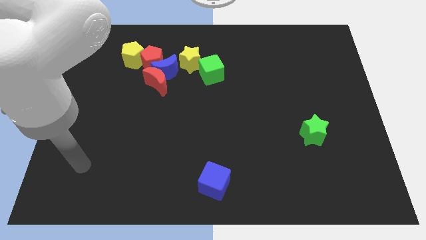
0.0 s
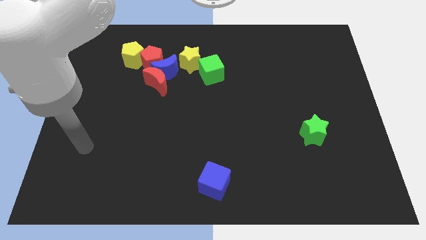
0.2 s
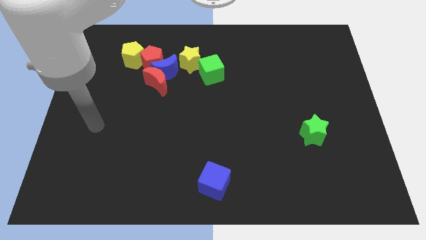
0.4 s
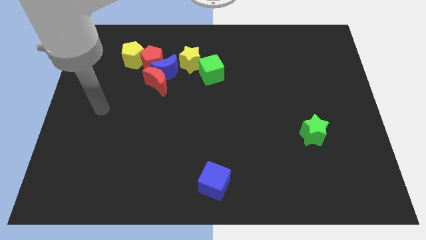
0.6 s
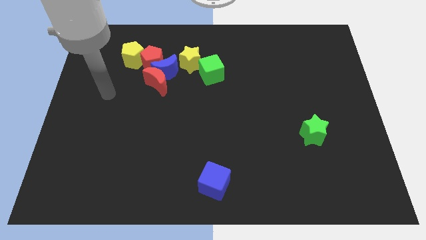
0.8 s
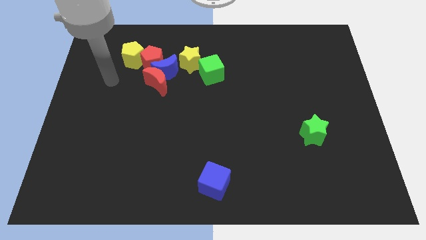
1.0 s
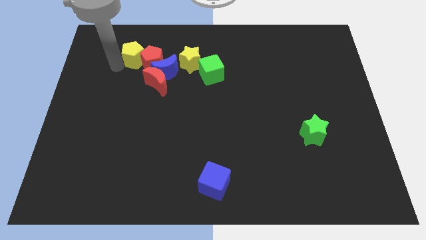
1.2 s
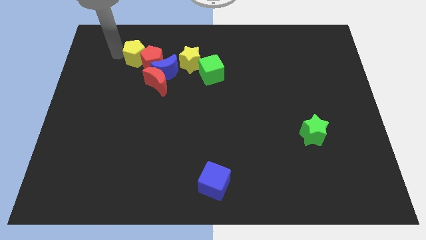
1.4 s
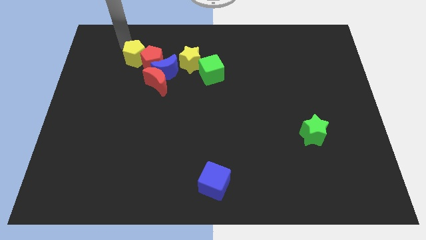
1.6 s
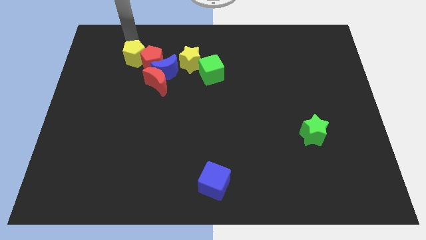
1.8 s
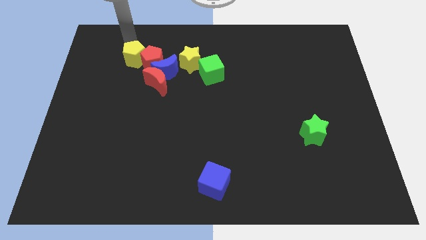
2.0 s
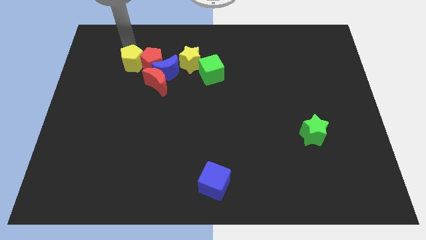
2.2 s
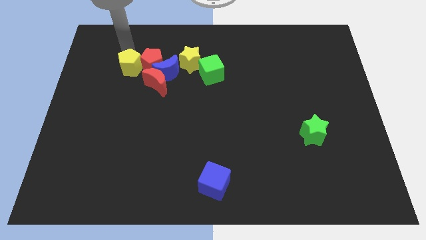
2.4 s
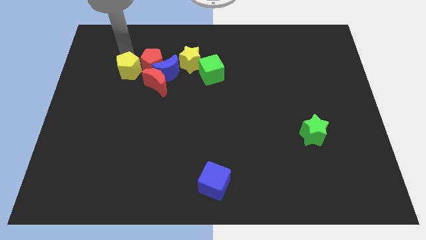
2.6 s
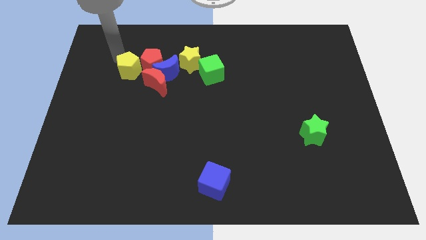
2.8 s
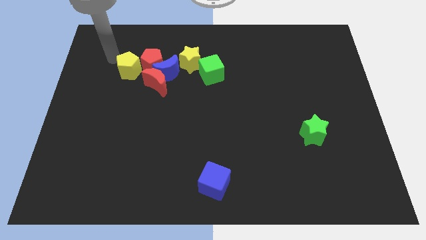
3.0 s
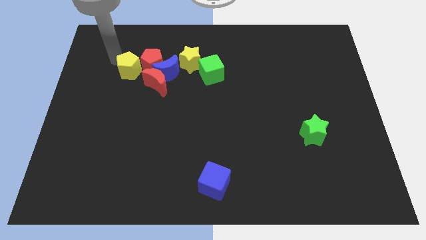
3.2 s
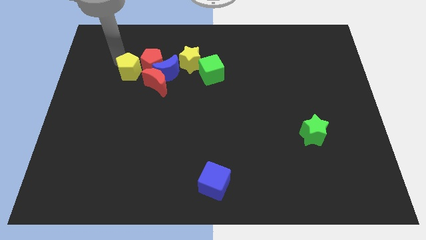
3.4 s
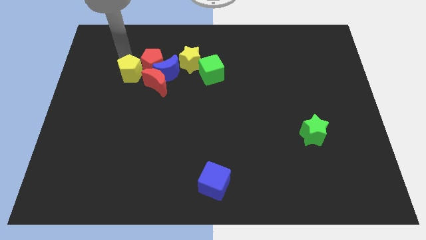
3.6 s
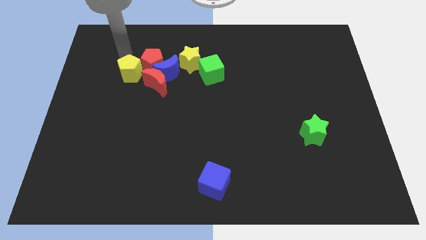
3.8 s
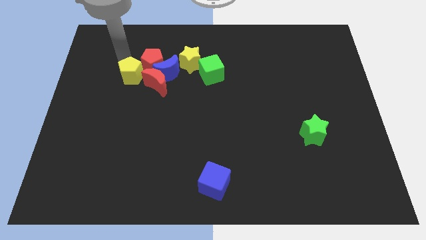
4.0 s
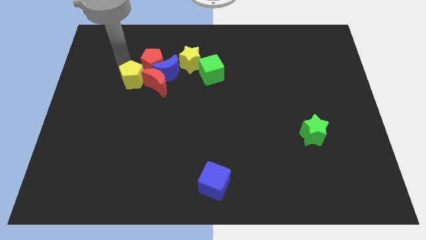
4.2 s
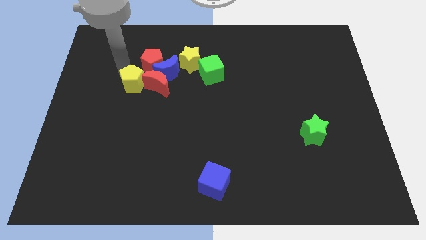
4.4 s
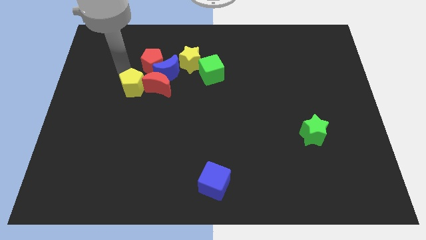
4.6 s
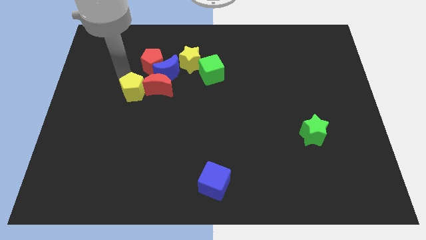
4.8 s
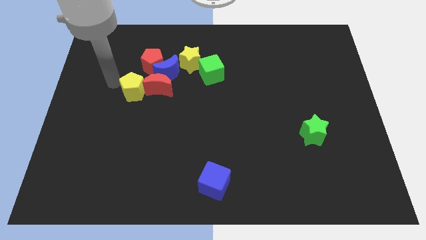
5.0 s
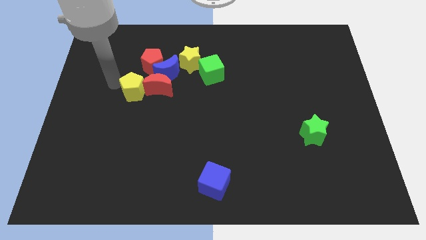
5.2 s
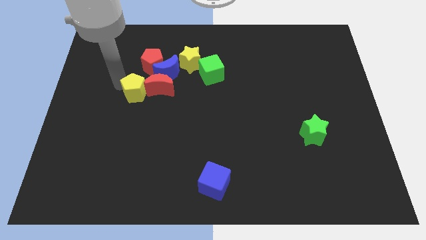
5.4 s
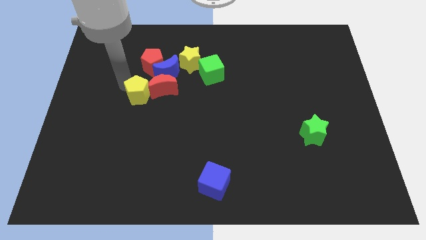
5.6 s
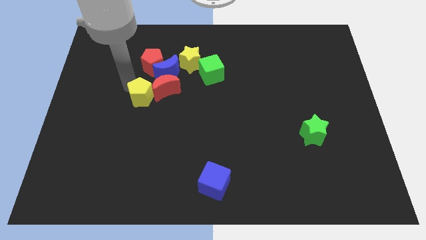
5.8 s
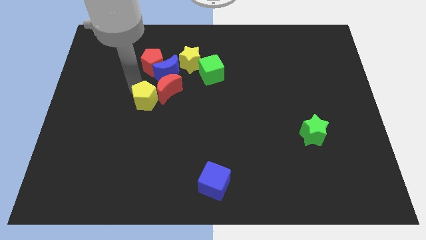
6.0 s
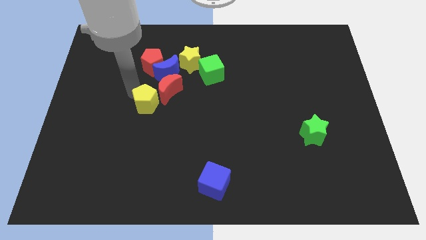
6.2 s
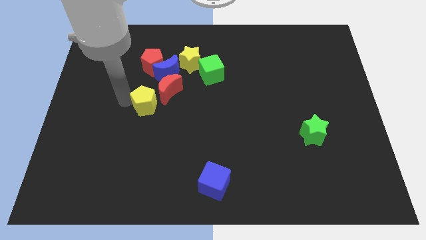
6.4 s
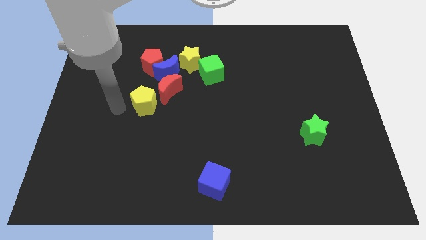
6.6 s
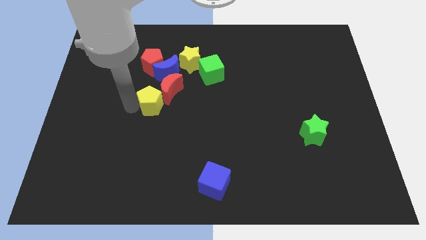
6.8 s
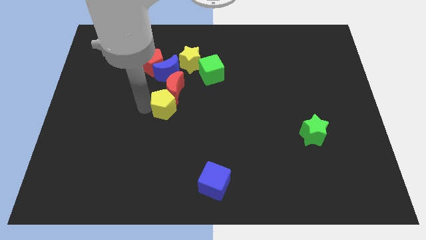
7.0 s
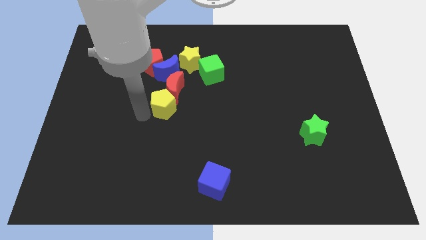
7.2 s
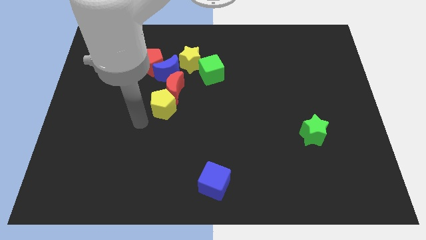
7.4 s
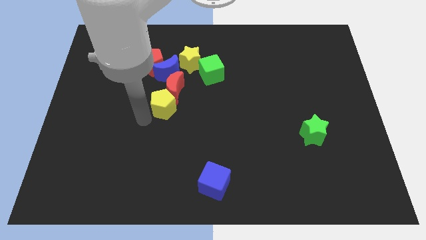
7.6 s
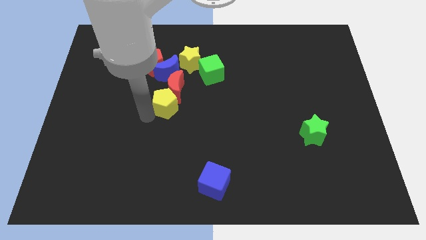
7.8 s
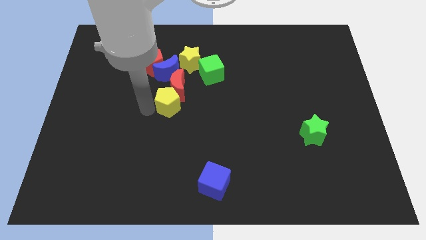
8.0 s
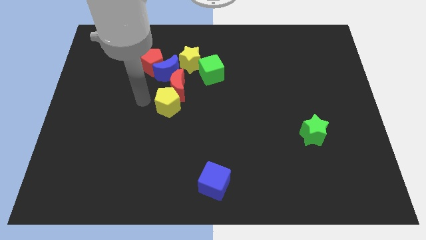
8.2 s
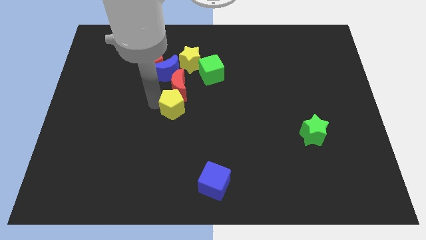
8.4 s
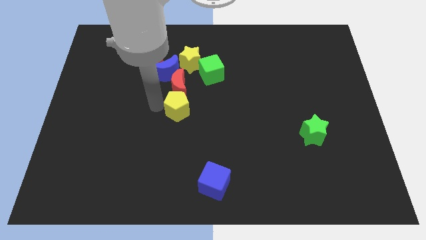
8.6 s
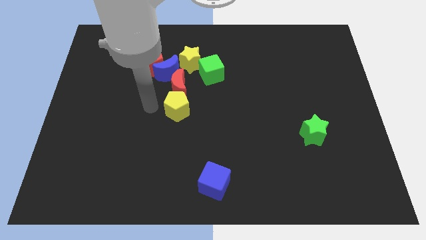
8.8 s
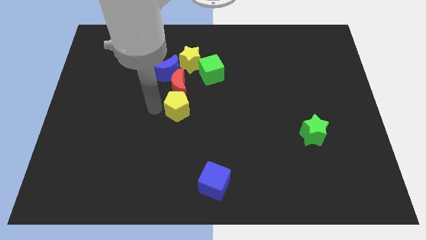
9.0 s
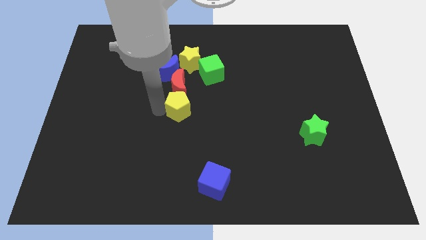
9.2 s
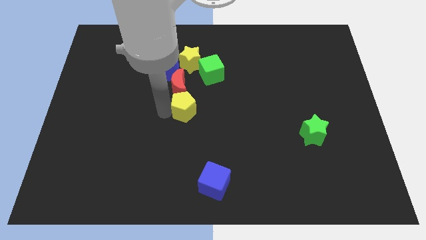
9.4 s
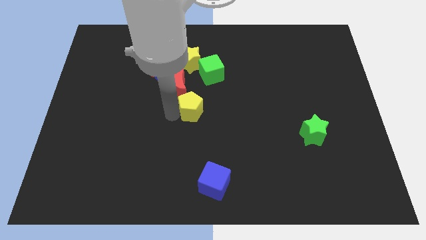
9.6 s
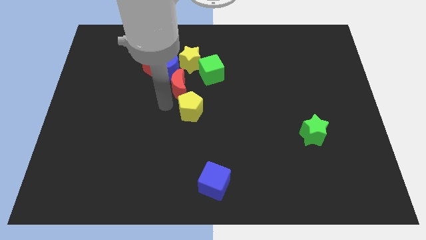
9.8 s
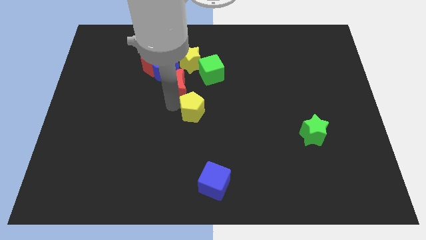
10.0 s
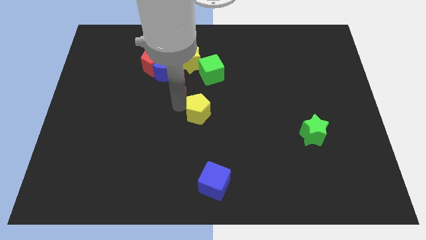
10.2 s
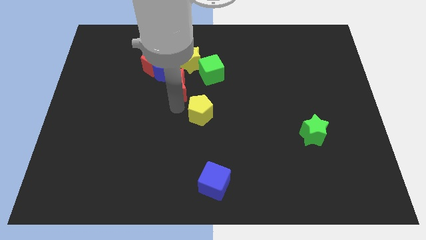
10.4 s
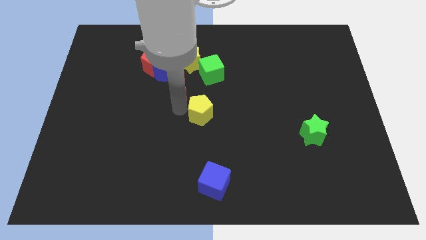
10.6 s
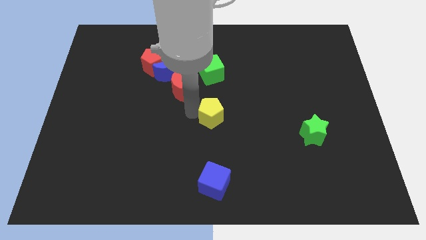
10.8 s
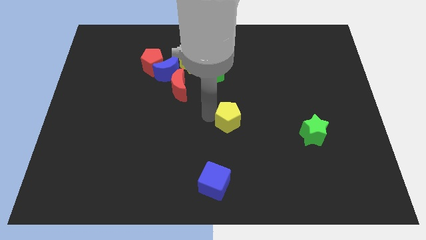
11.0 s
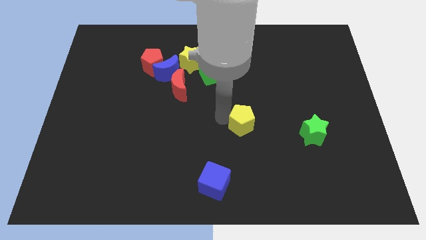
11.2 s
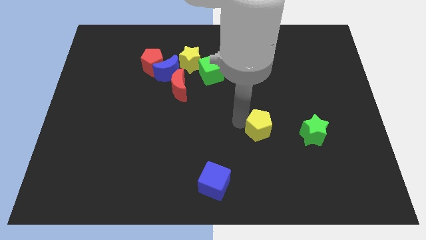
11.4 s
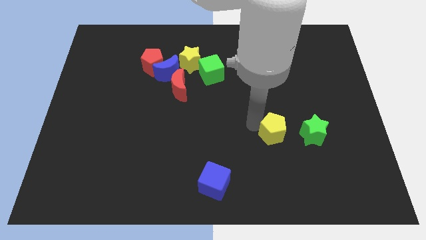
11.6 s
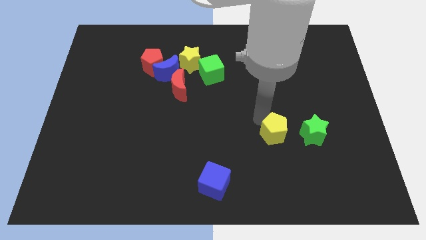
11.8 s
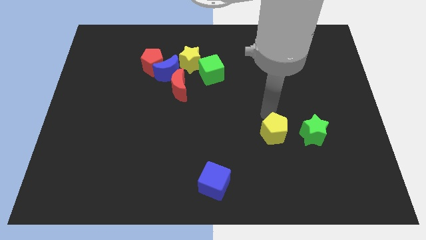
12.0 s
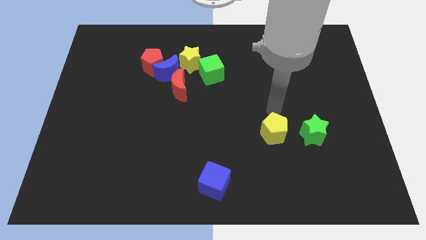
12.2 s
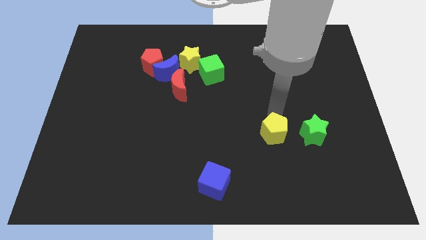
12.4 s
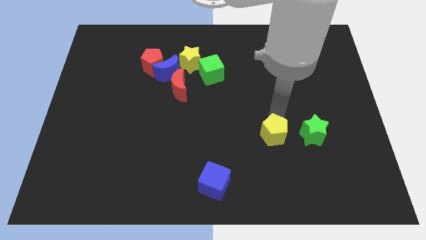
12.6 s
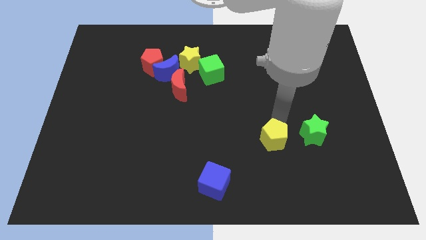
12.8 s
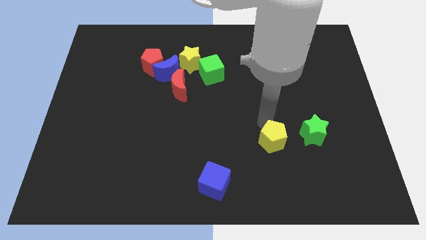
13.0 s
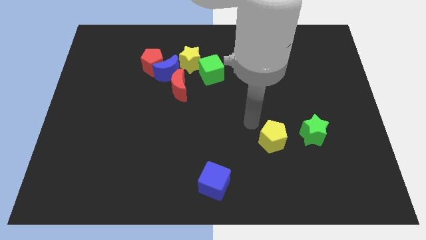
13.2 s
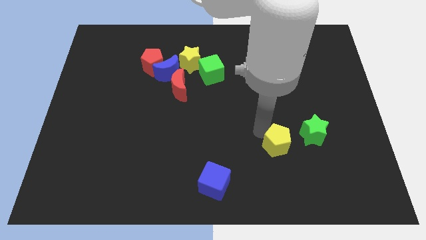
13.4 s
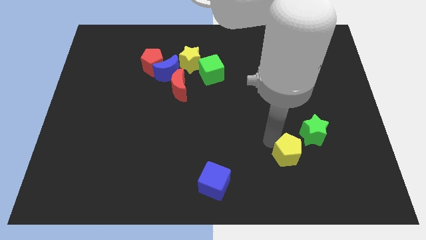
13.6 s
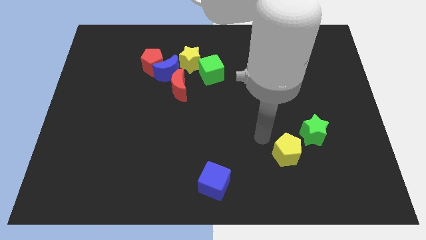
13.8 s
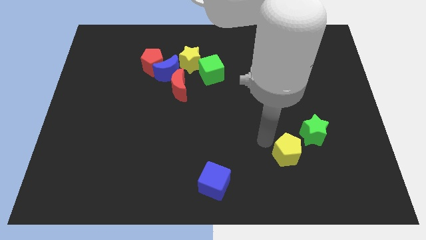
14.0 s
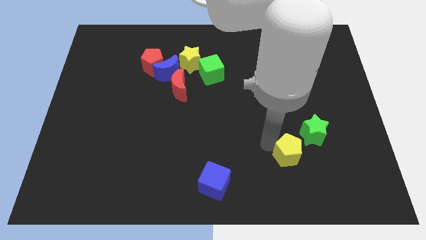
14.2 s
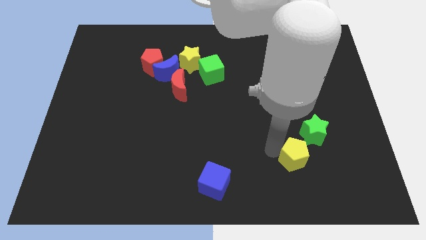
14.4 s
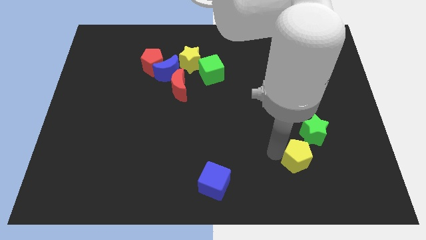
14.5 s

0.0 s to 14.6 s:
slide the yellow pentagon below the green star
